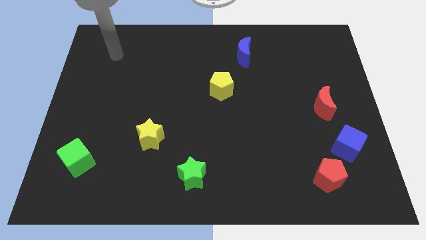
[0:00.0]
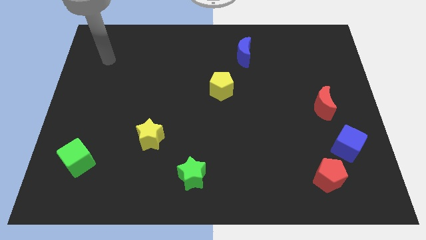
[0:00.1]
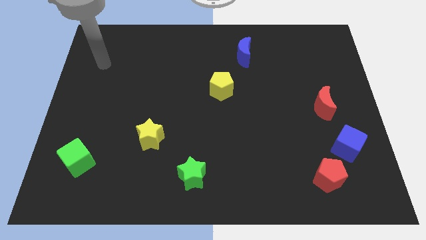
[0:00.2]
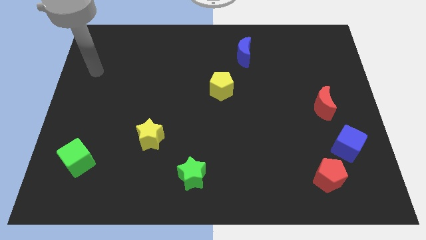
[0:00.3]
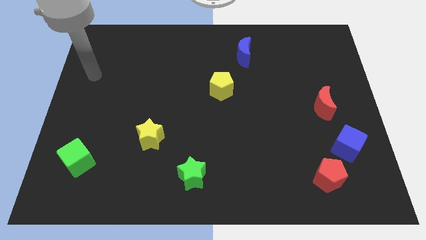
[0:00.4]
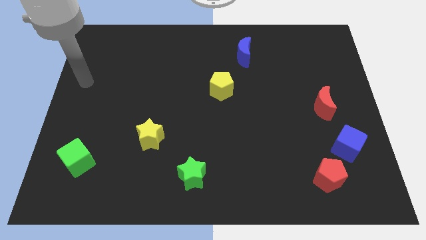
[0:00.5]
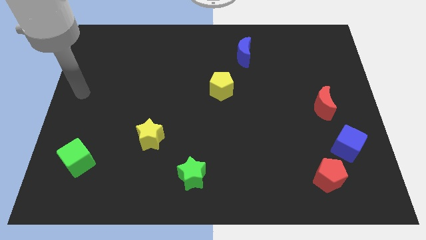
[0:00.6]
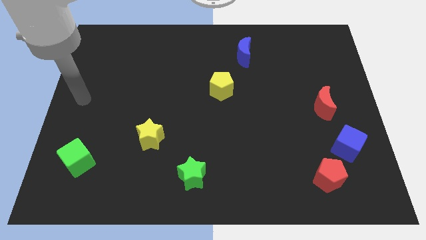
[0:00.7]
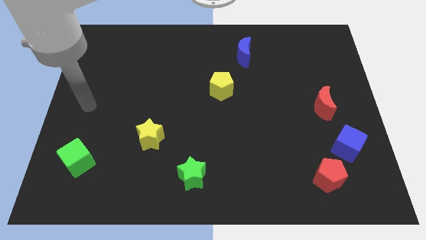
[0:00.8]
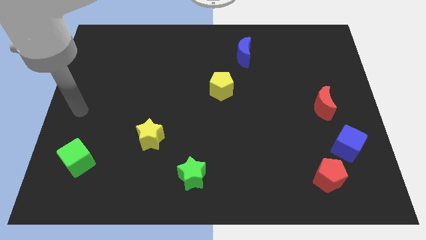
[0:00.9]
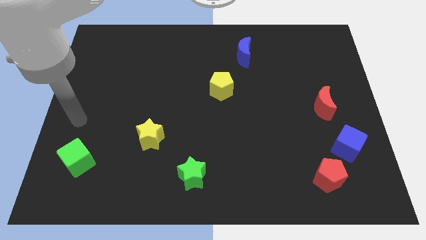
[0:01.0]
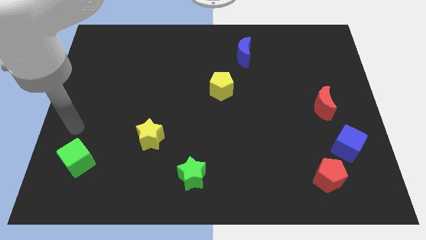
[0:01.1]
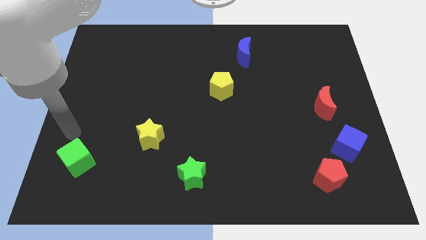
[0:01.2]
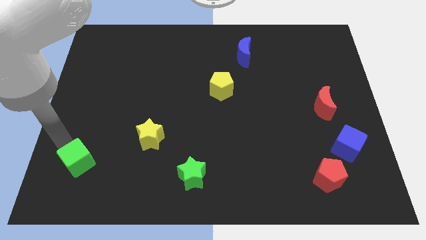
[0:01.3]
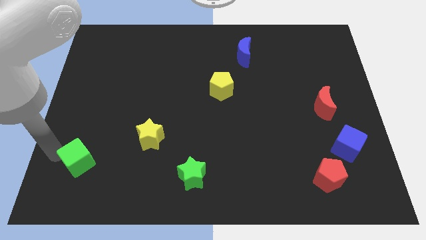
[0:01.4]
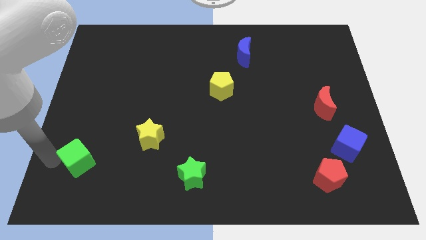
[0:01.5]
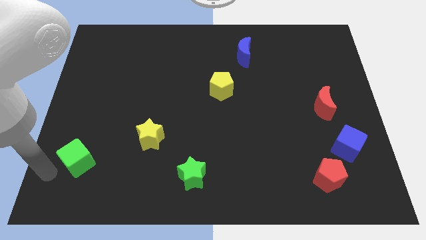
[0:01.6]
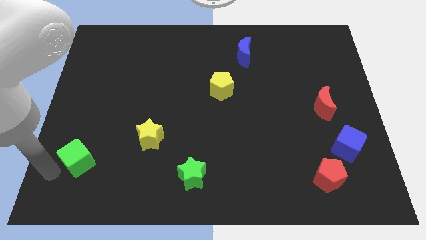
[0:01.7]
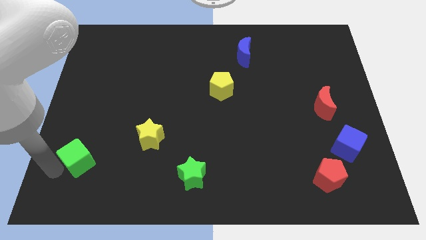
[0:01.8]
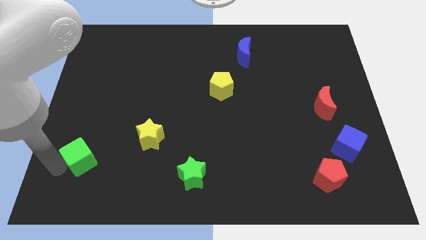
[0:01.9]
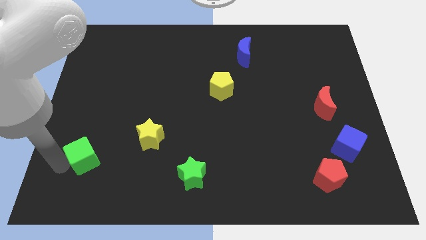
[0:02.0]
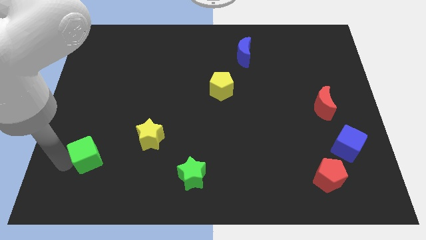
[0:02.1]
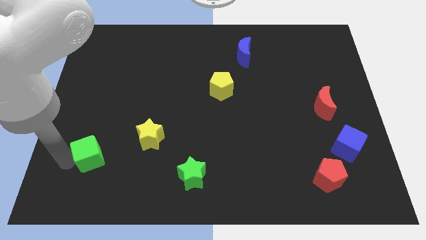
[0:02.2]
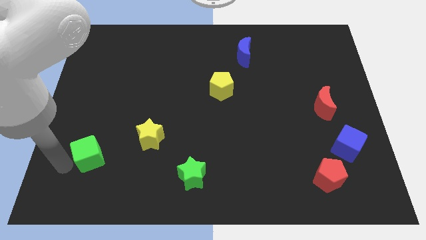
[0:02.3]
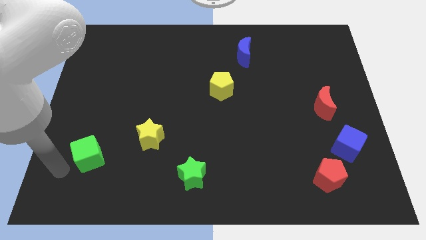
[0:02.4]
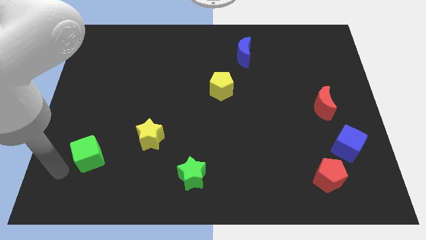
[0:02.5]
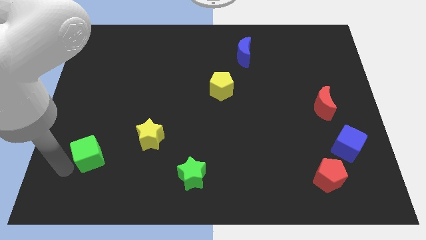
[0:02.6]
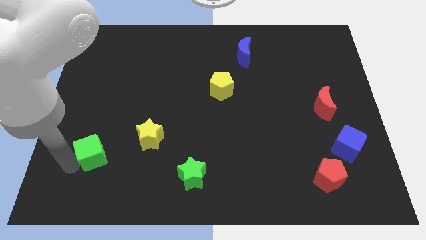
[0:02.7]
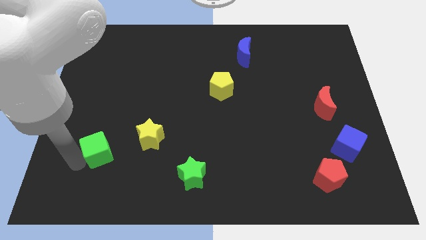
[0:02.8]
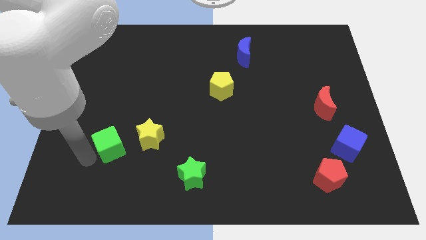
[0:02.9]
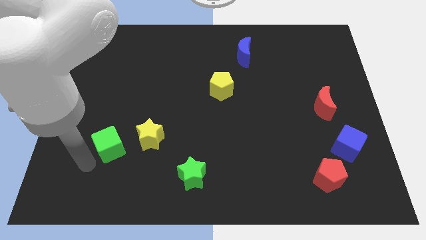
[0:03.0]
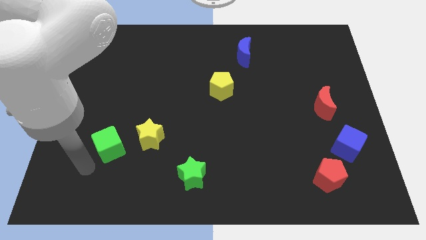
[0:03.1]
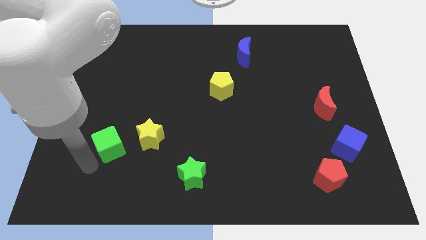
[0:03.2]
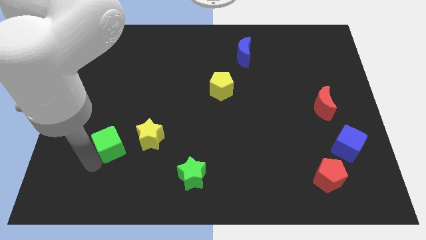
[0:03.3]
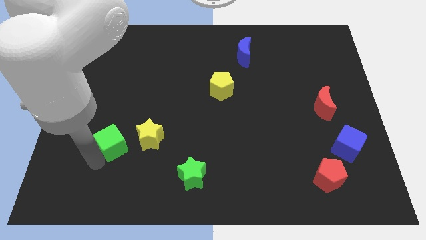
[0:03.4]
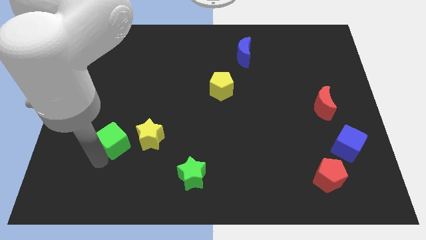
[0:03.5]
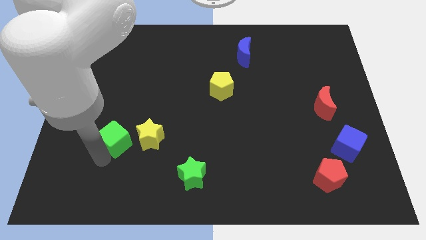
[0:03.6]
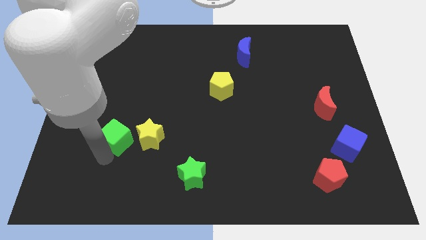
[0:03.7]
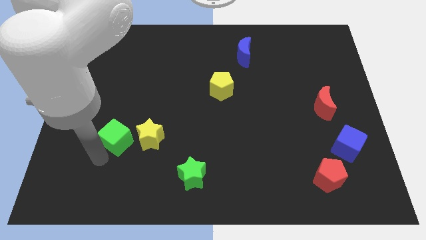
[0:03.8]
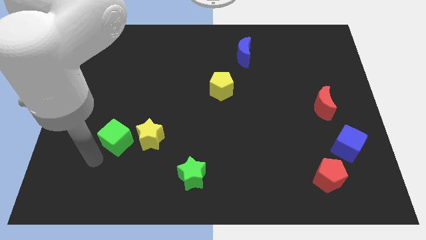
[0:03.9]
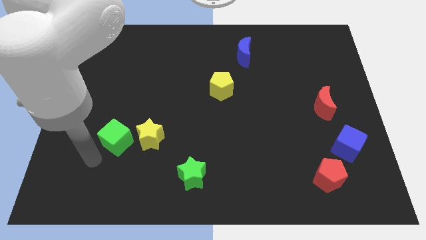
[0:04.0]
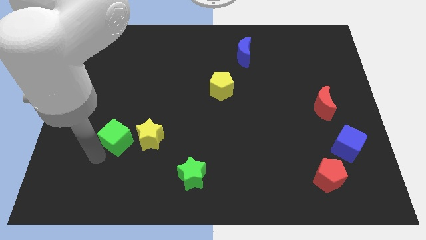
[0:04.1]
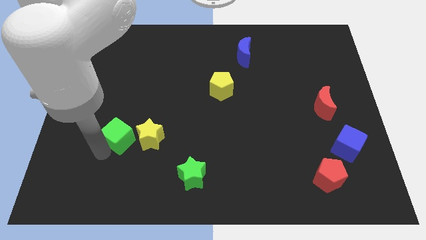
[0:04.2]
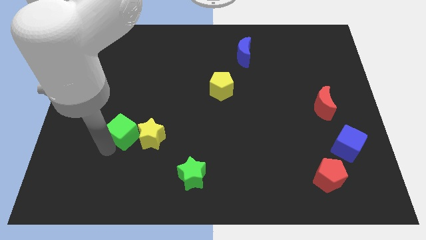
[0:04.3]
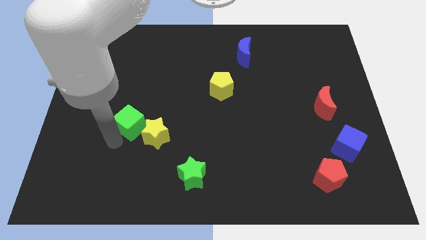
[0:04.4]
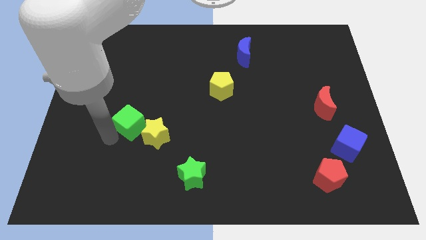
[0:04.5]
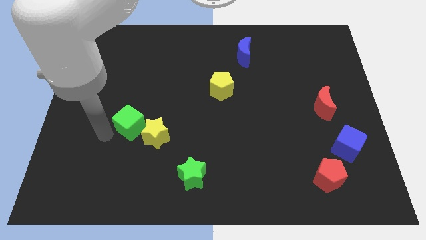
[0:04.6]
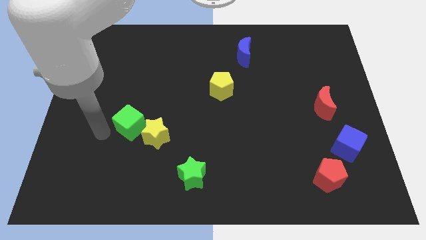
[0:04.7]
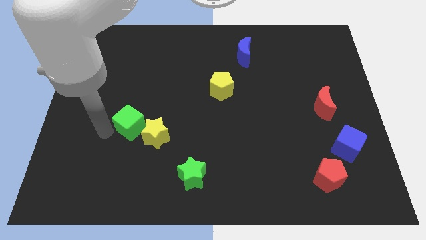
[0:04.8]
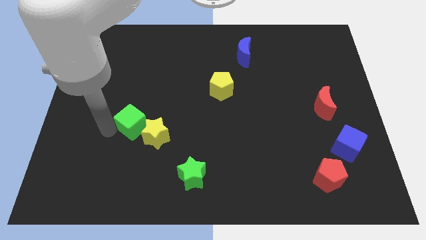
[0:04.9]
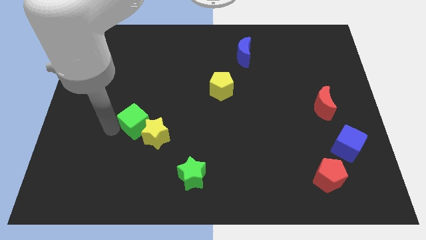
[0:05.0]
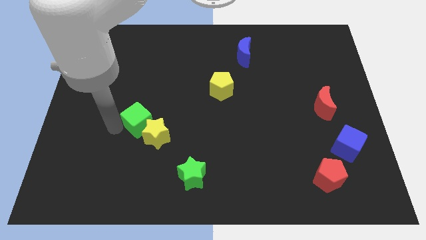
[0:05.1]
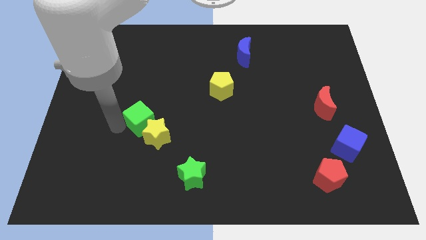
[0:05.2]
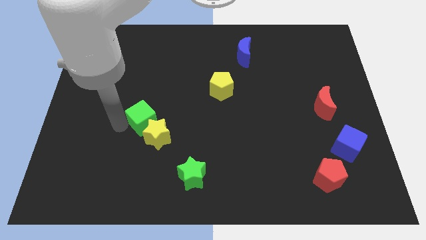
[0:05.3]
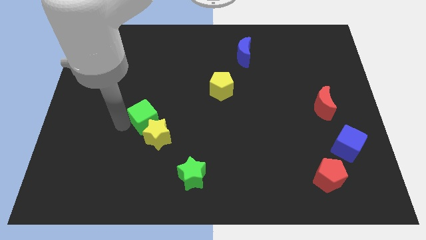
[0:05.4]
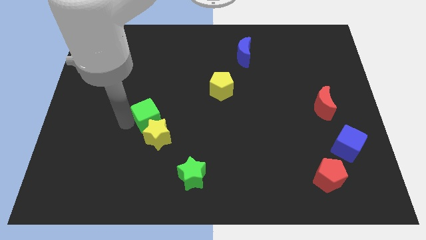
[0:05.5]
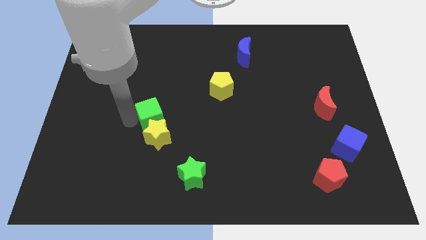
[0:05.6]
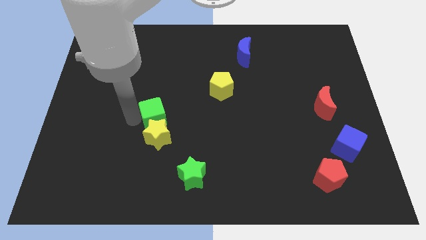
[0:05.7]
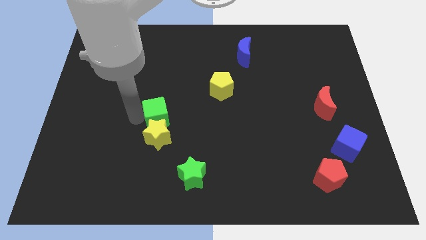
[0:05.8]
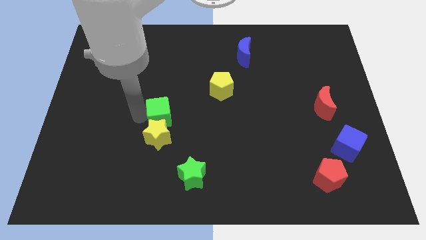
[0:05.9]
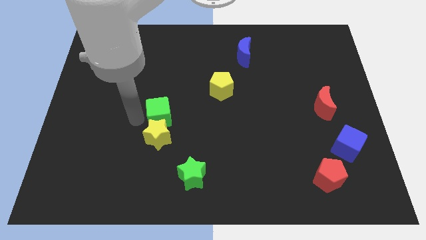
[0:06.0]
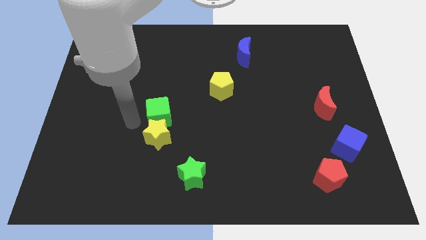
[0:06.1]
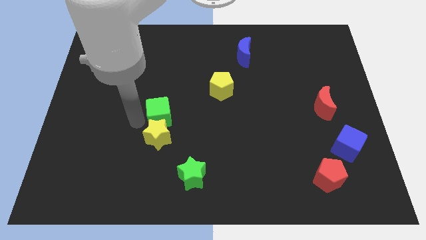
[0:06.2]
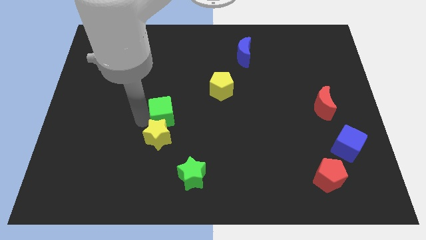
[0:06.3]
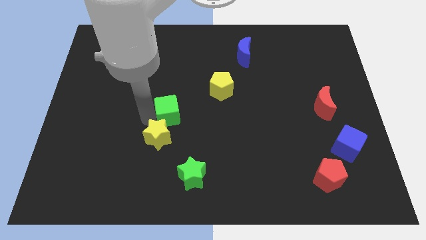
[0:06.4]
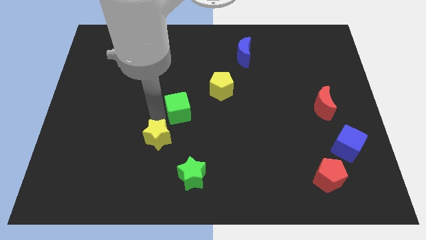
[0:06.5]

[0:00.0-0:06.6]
put the green cube to the bottom left of the yellow pentagon

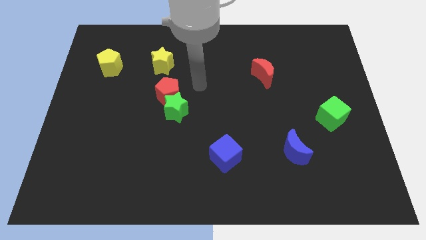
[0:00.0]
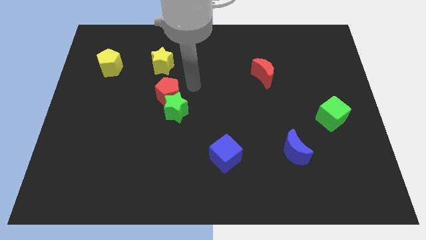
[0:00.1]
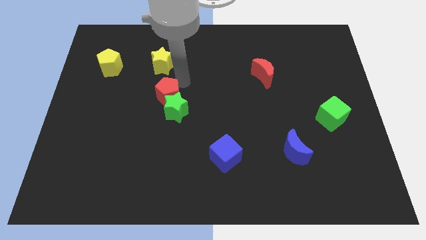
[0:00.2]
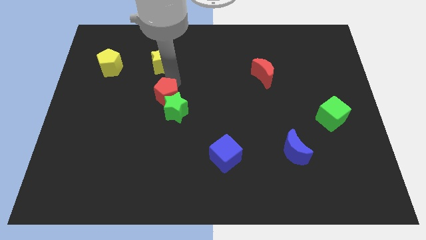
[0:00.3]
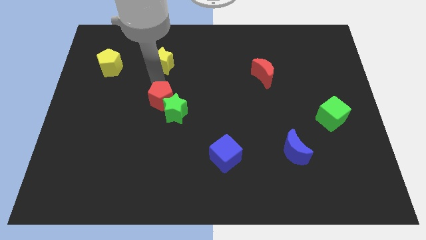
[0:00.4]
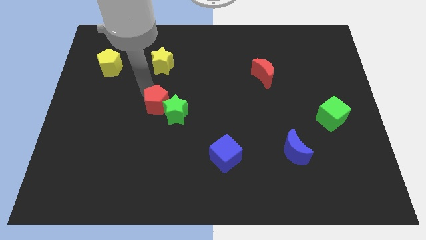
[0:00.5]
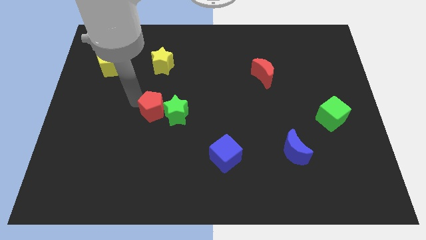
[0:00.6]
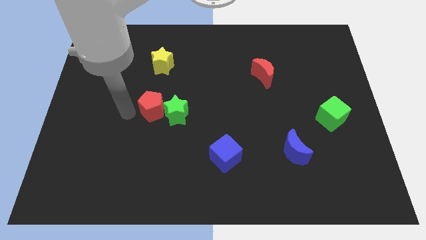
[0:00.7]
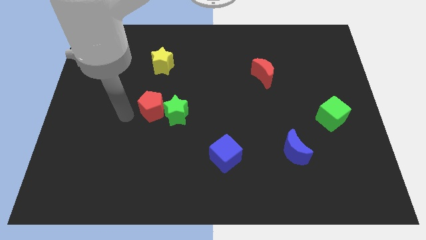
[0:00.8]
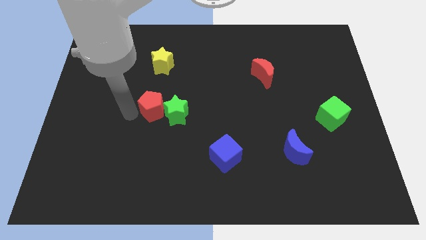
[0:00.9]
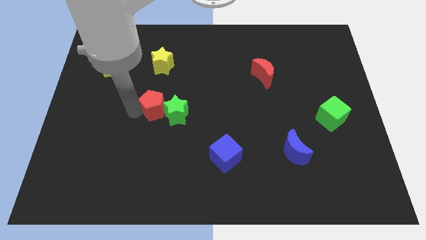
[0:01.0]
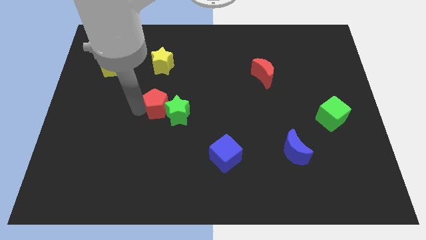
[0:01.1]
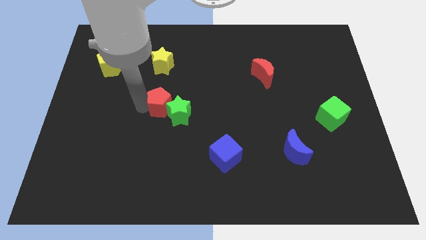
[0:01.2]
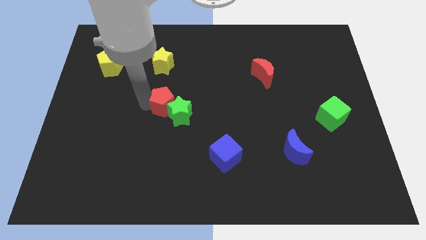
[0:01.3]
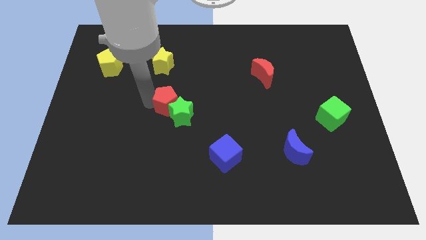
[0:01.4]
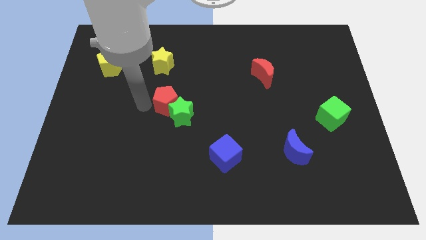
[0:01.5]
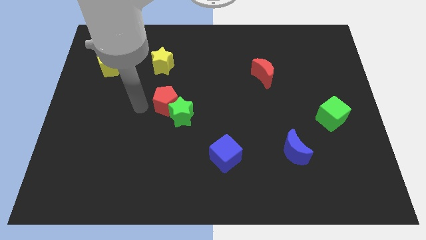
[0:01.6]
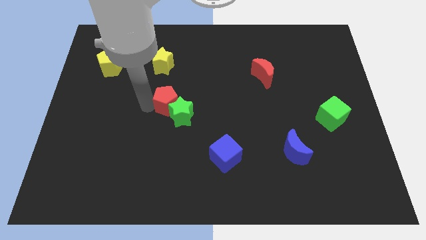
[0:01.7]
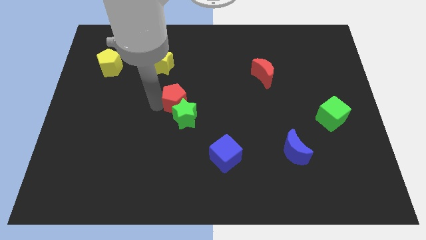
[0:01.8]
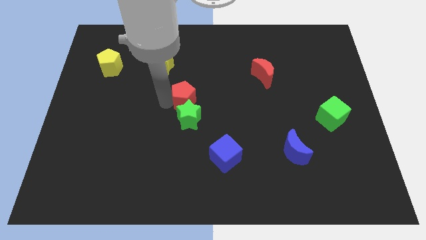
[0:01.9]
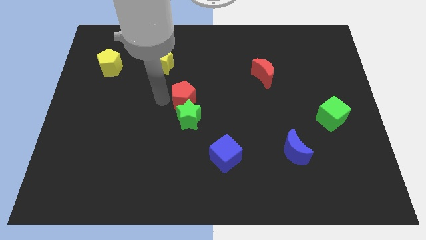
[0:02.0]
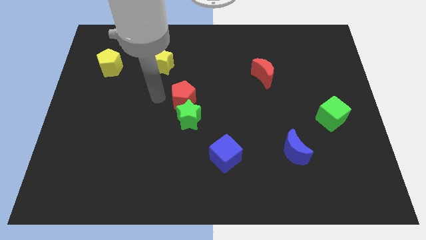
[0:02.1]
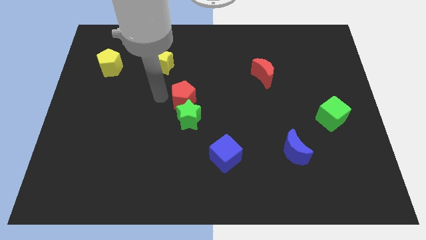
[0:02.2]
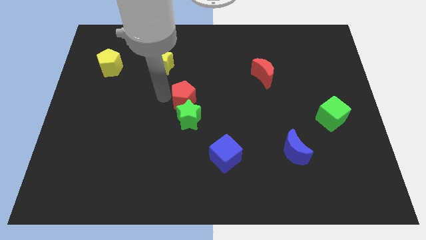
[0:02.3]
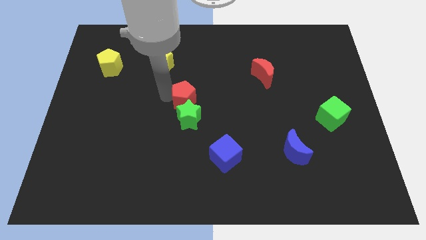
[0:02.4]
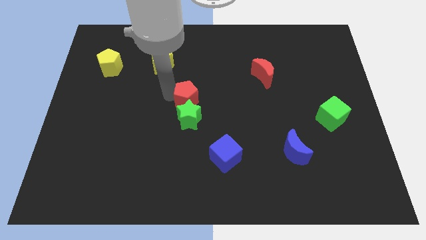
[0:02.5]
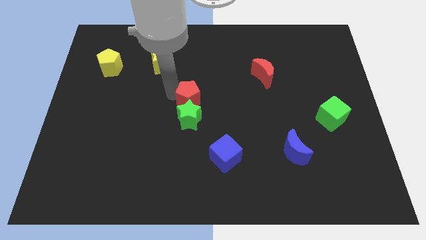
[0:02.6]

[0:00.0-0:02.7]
push the red pentagon to the top right side of the green star
